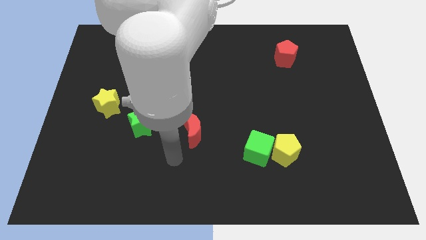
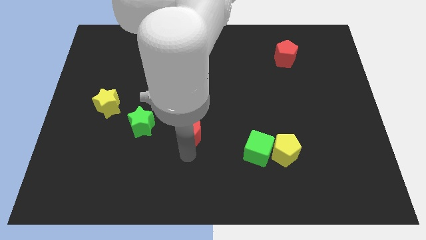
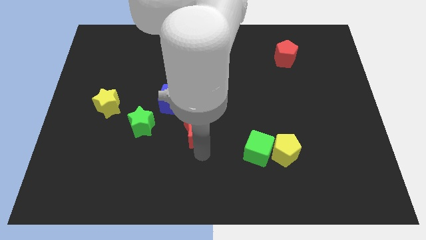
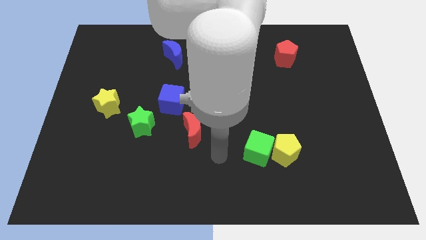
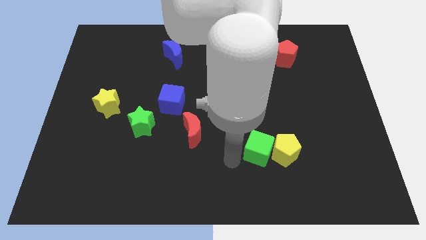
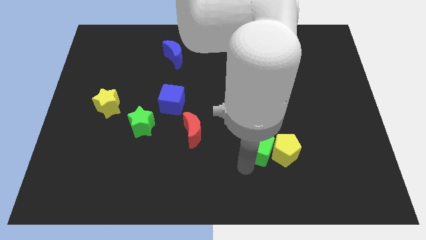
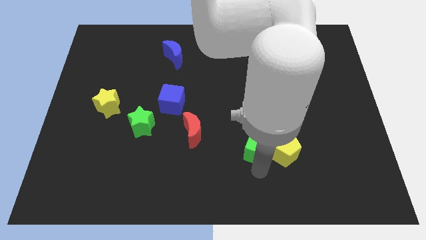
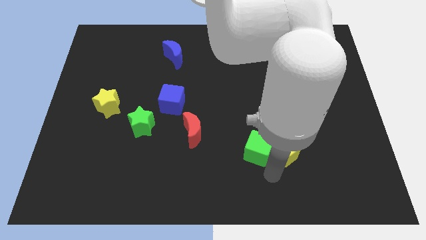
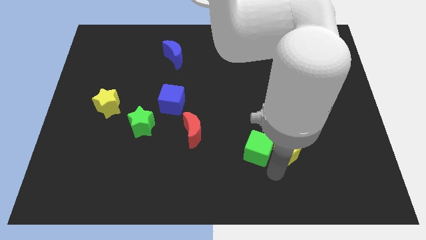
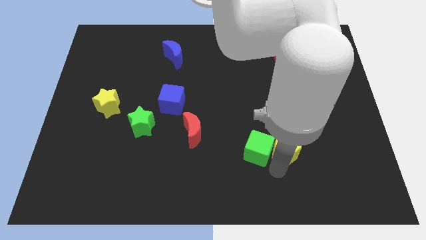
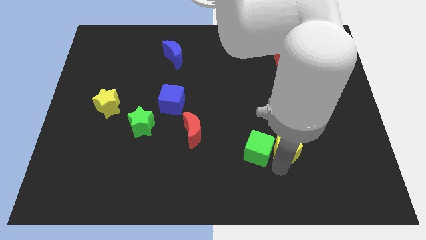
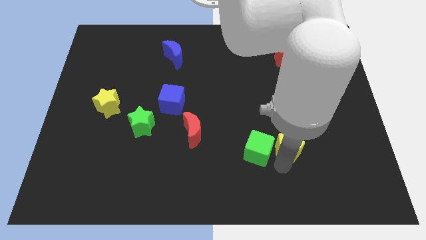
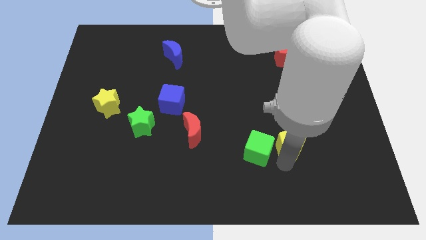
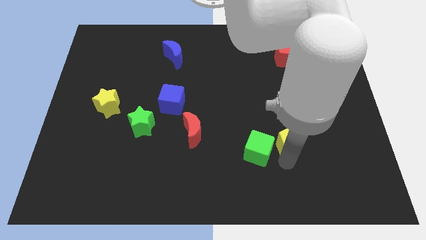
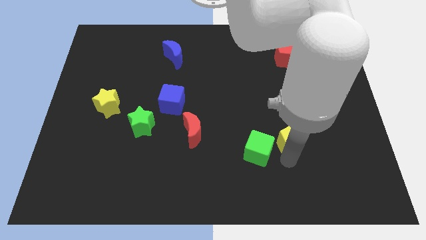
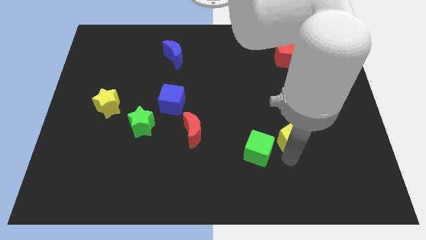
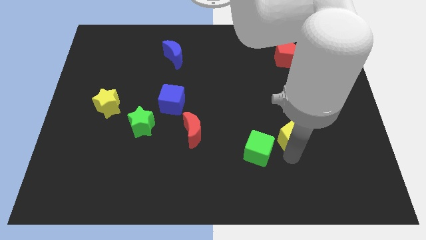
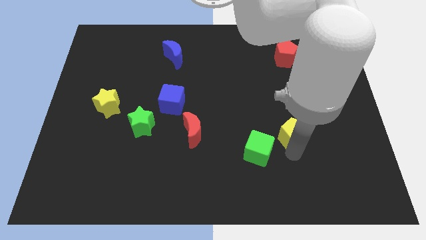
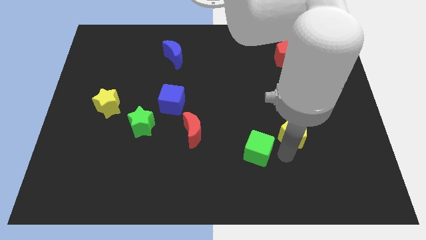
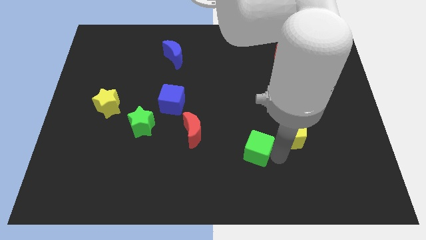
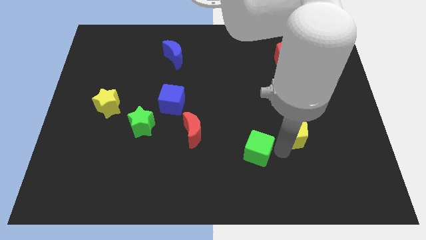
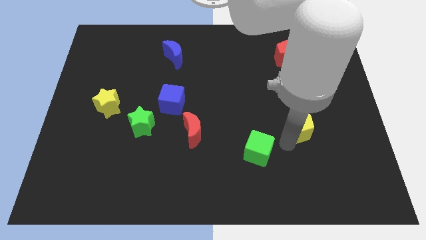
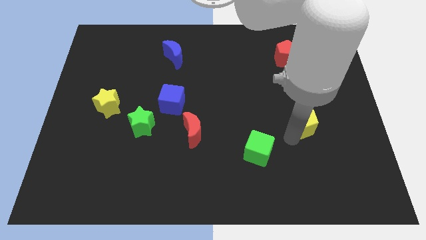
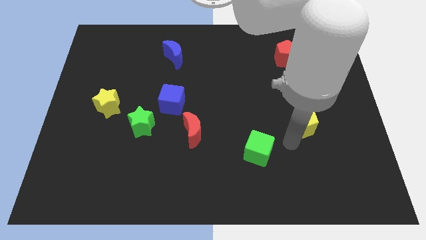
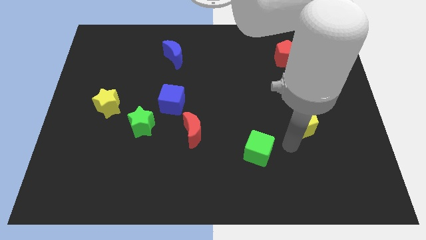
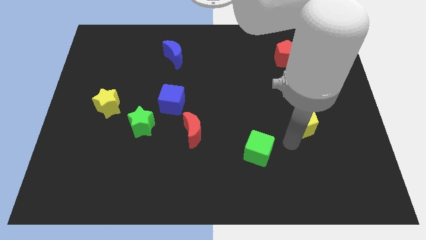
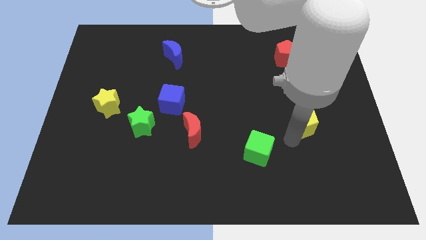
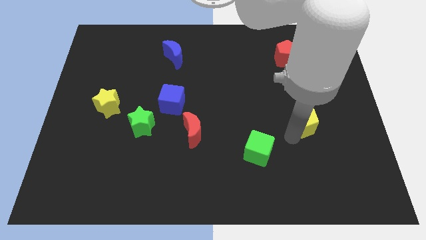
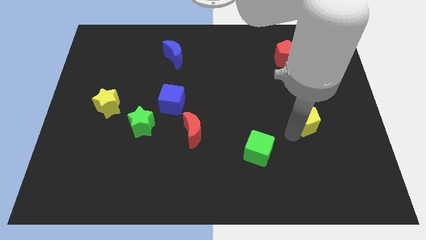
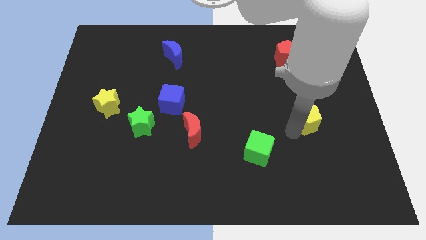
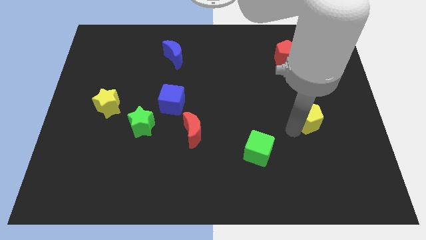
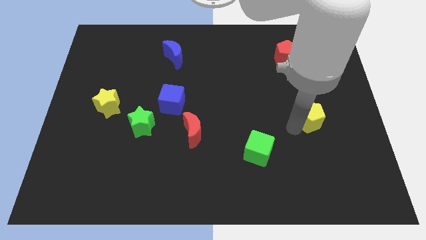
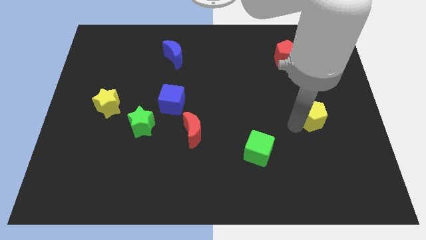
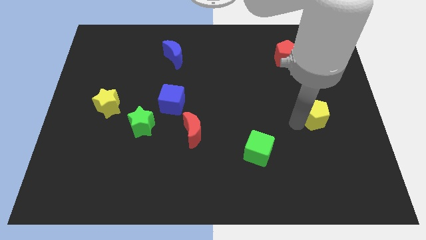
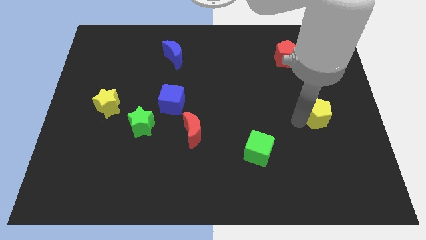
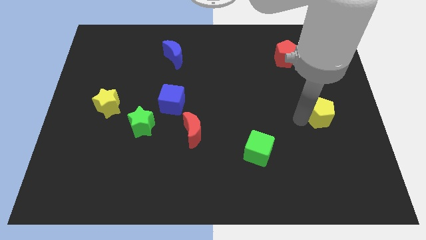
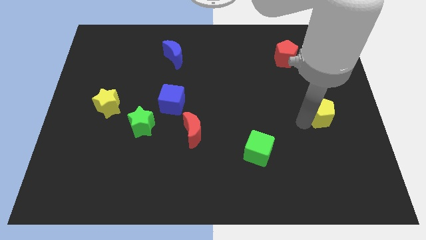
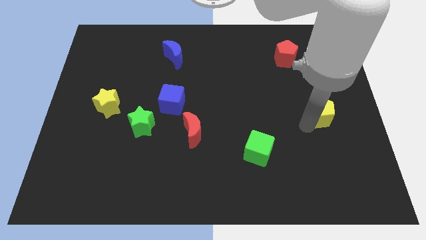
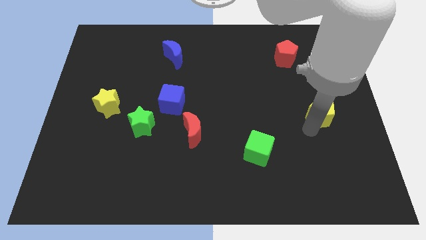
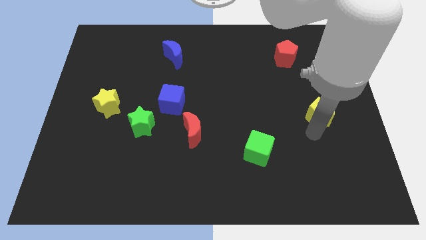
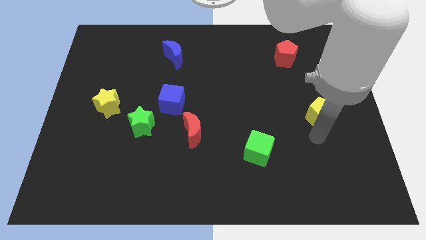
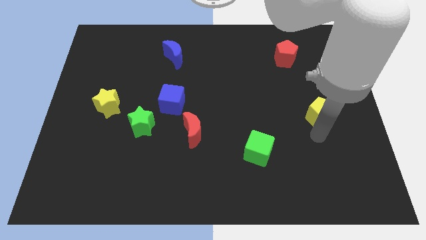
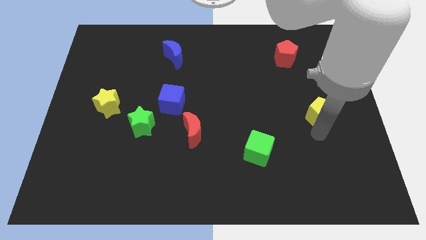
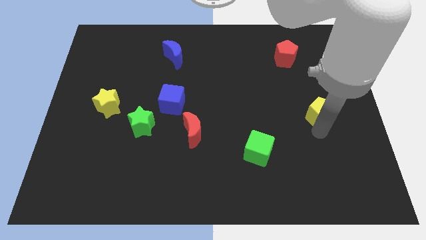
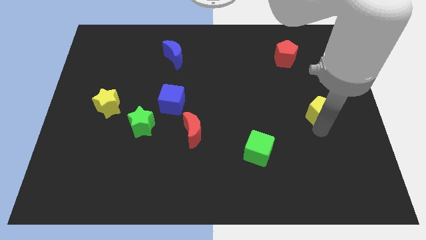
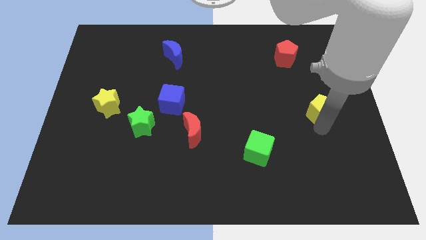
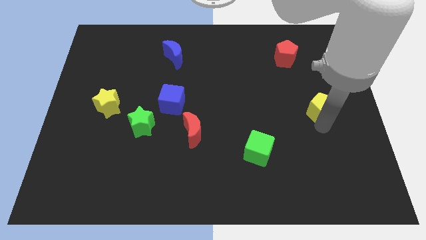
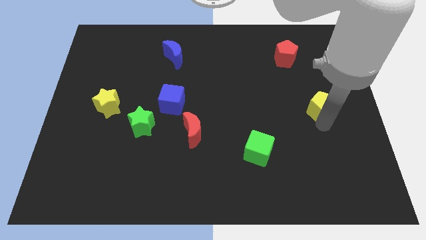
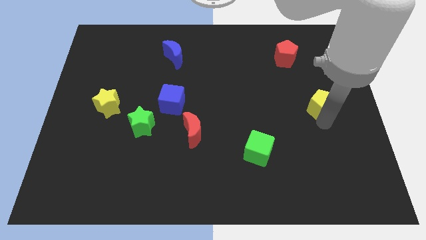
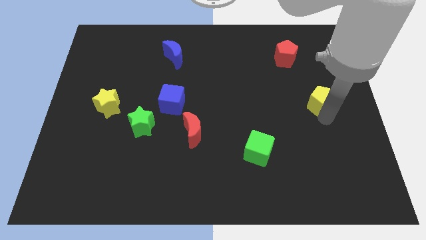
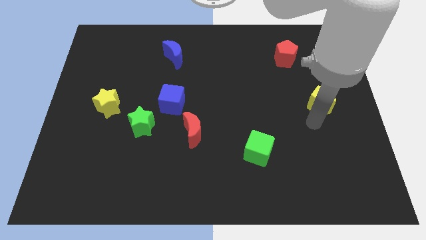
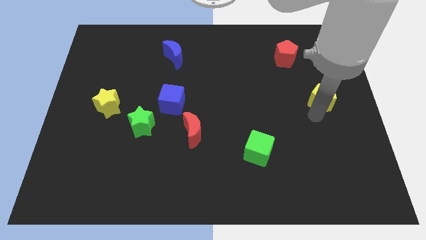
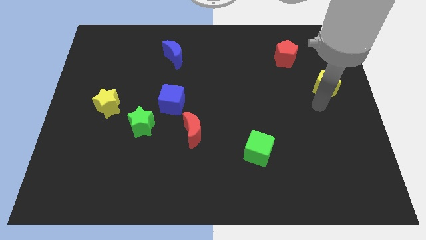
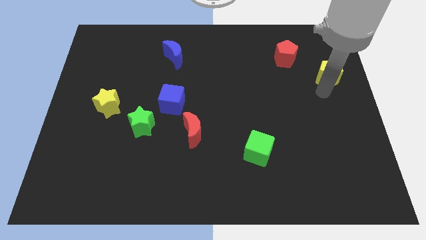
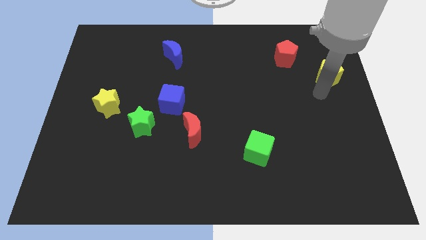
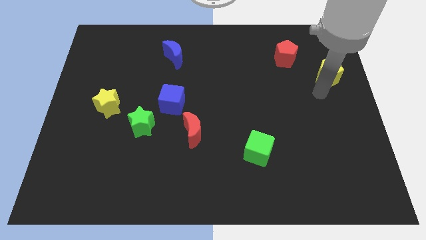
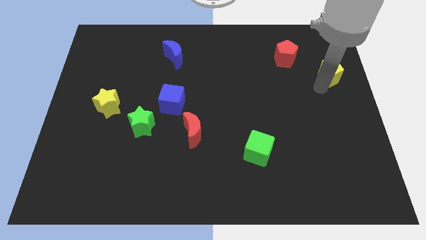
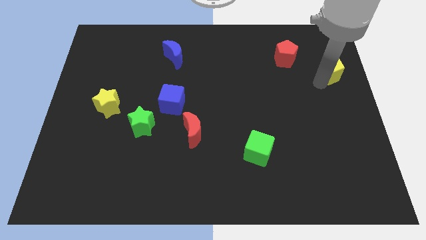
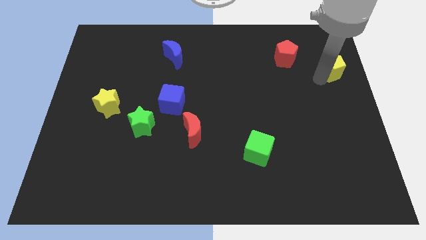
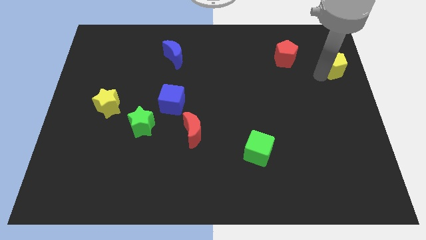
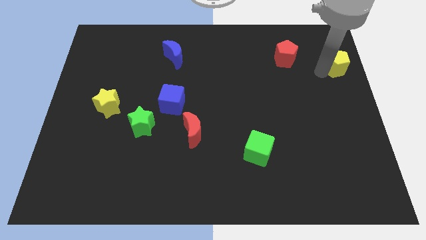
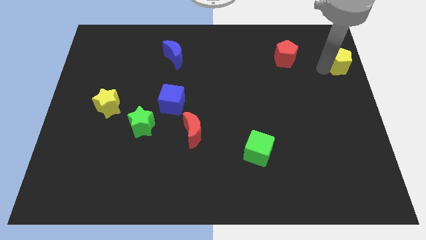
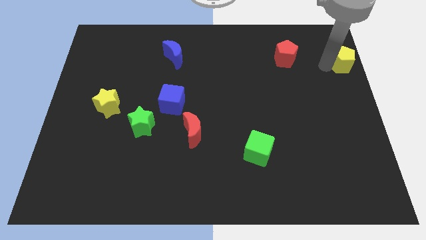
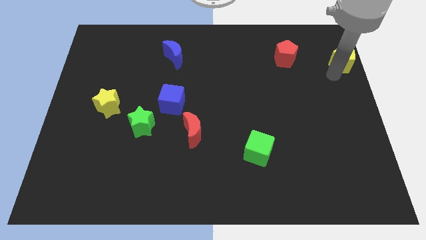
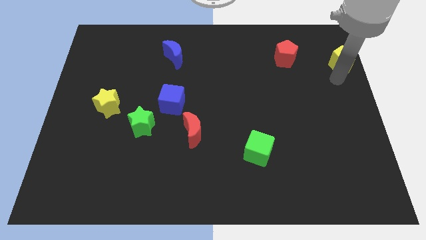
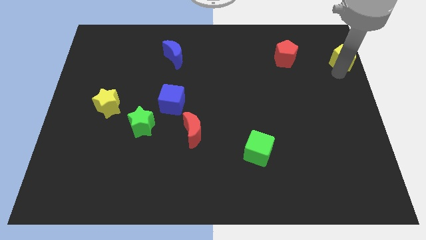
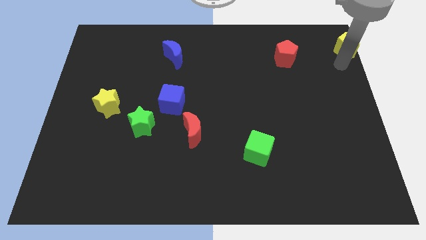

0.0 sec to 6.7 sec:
put the yellow pentagon to the top right corner

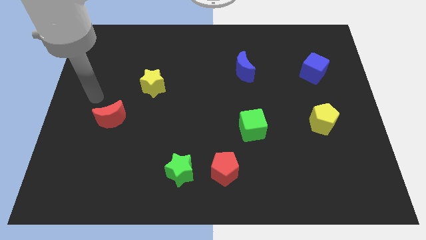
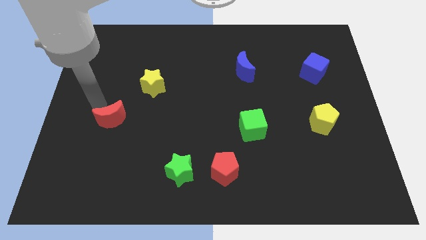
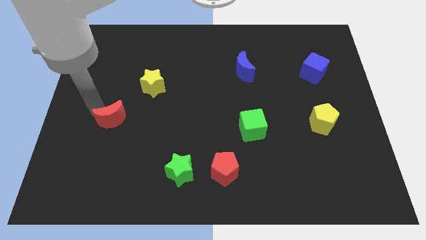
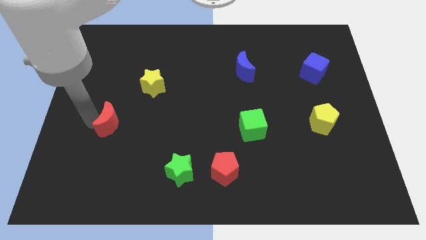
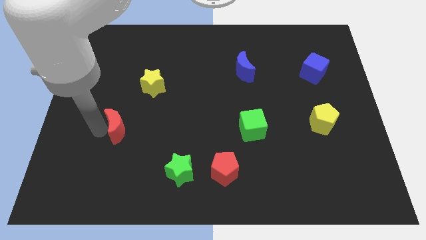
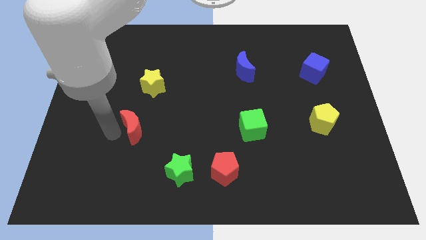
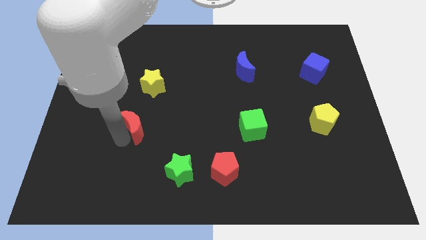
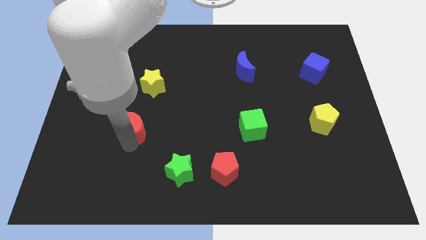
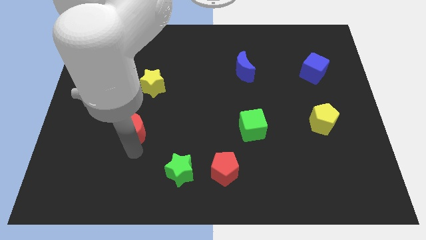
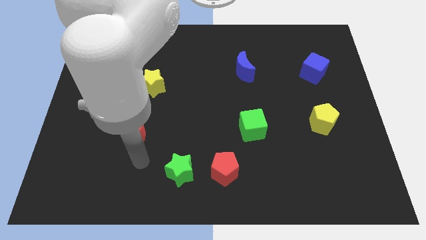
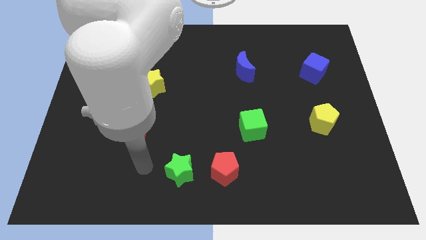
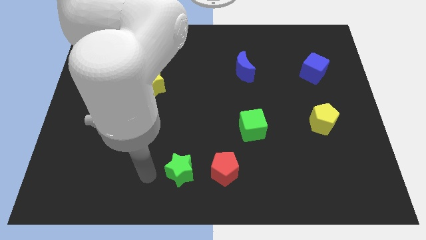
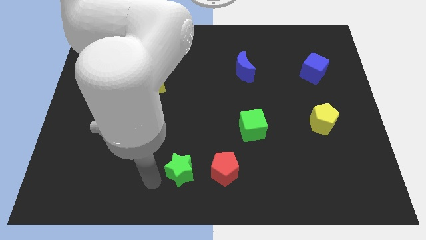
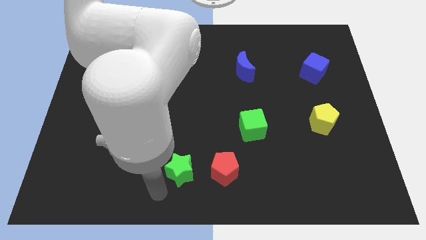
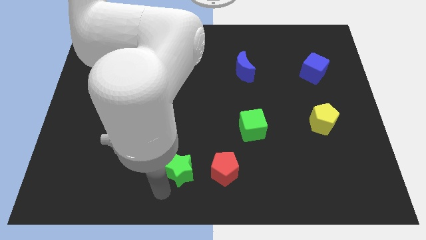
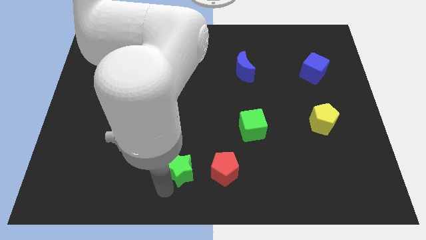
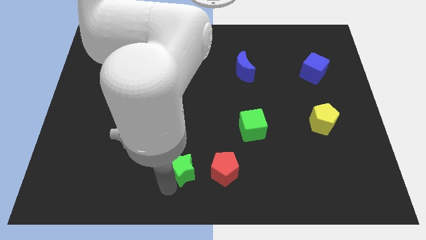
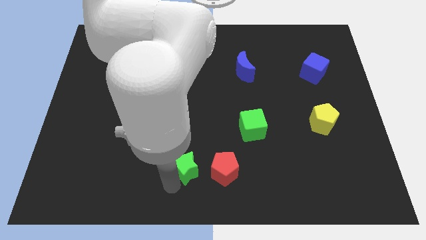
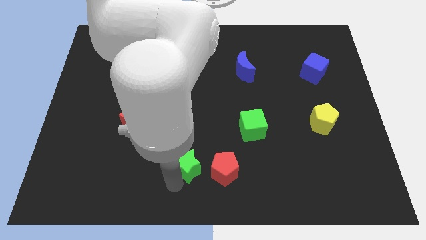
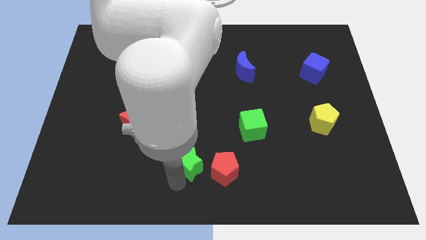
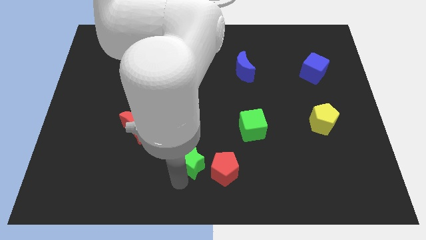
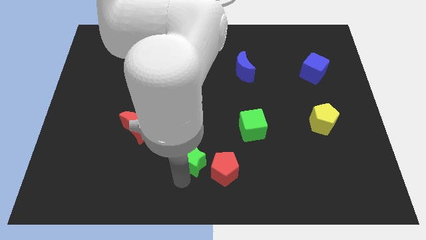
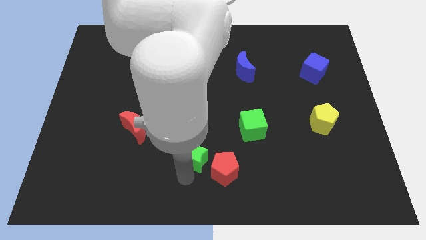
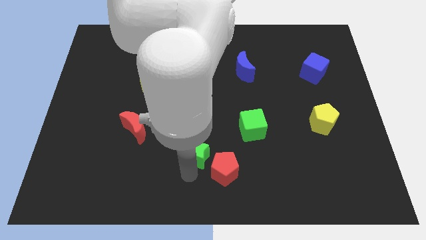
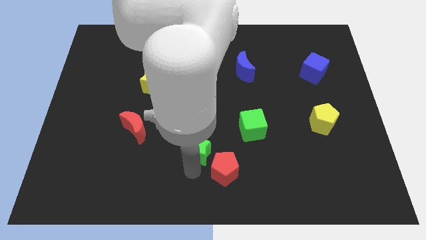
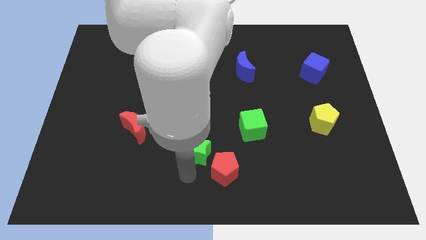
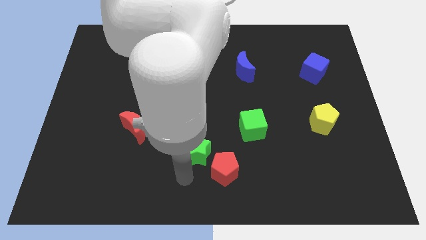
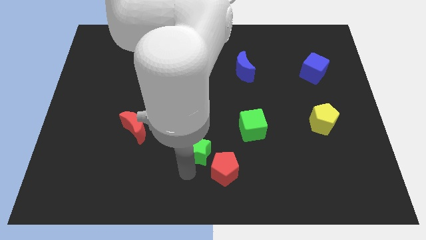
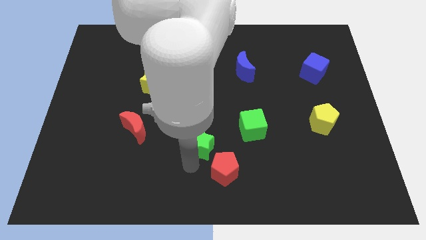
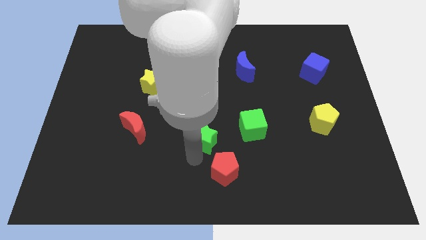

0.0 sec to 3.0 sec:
put the green star to the center of the board
